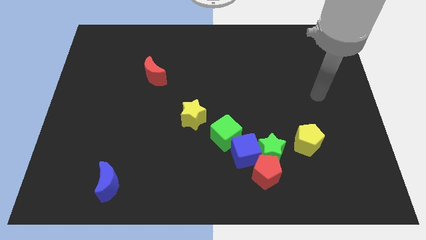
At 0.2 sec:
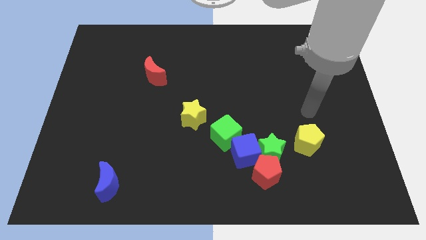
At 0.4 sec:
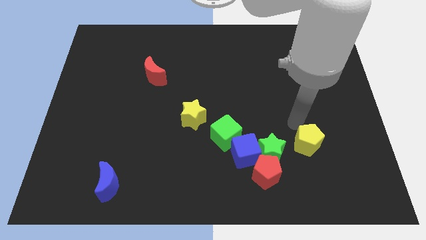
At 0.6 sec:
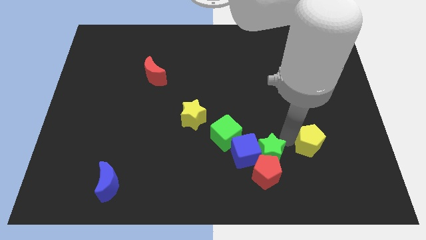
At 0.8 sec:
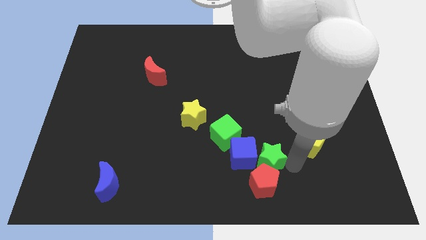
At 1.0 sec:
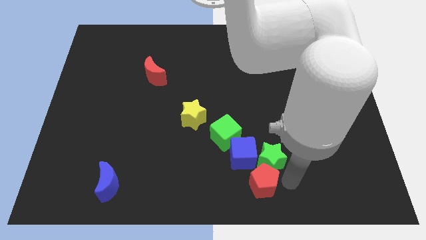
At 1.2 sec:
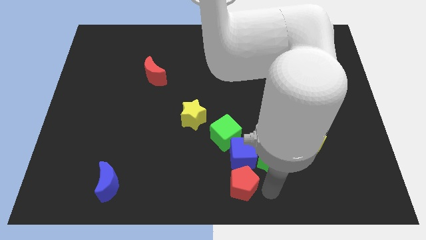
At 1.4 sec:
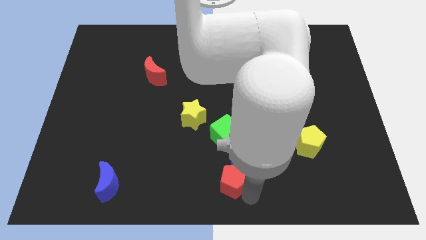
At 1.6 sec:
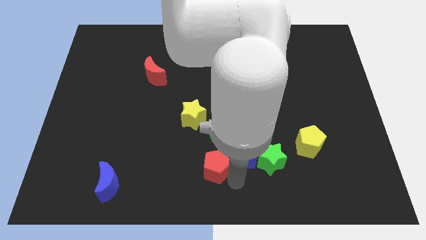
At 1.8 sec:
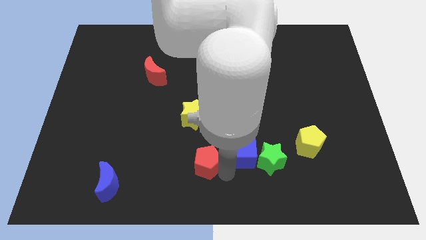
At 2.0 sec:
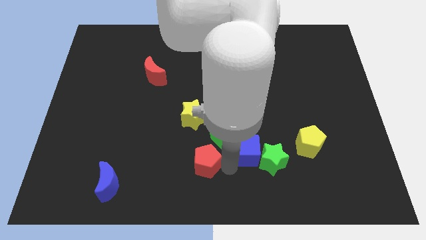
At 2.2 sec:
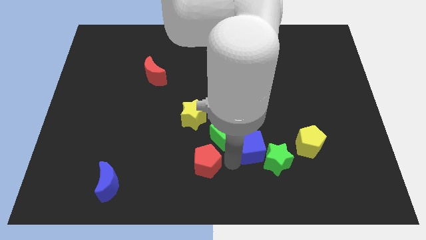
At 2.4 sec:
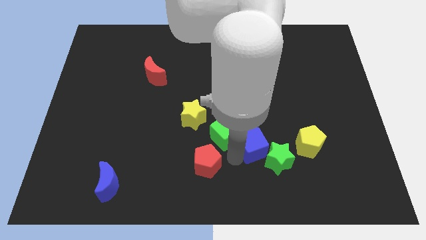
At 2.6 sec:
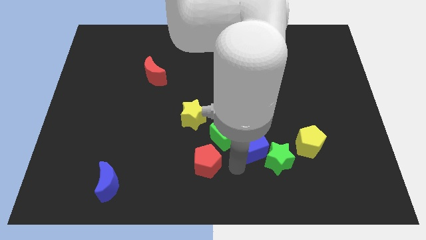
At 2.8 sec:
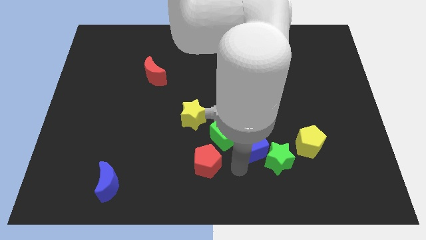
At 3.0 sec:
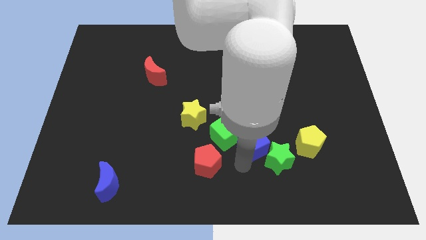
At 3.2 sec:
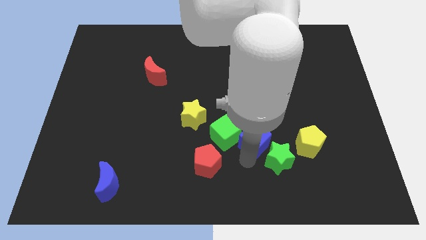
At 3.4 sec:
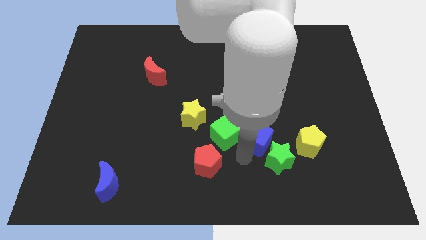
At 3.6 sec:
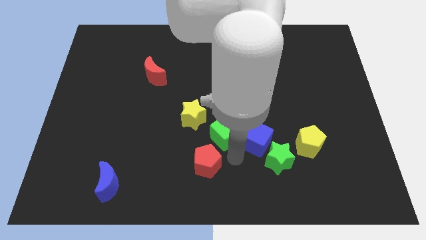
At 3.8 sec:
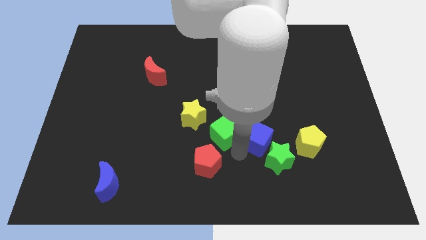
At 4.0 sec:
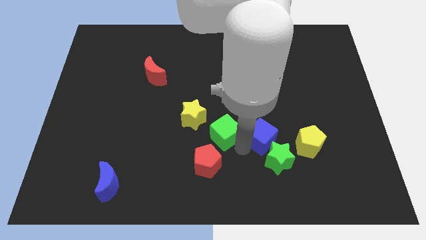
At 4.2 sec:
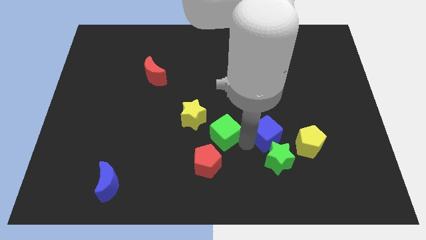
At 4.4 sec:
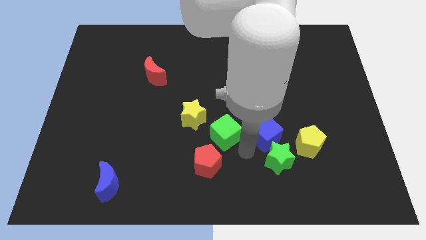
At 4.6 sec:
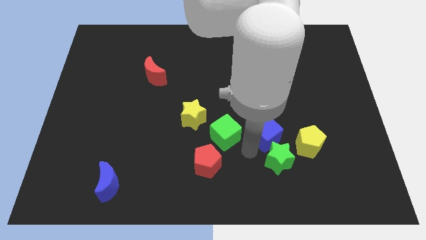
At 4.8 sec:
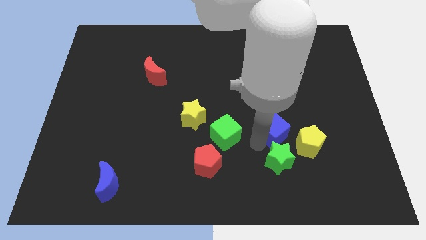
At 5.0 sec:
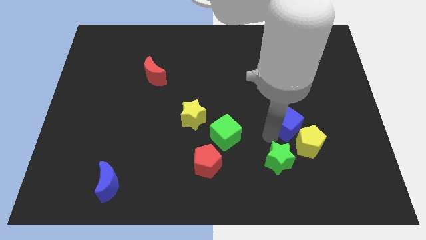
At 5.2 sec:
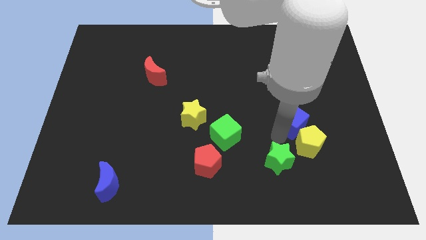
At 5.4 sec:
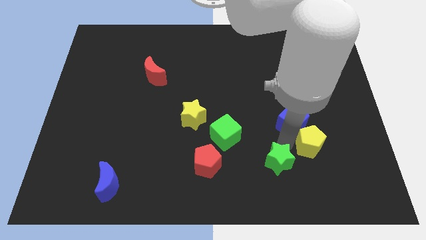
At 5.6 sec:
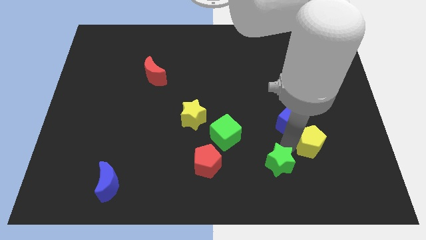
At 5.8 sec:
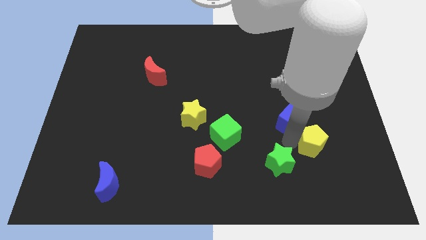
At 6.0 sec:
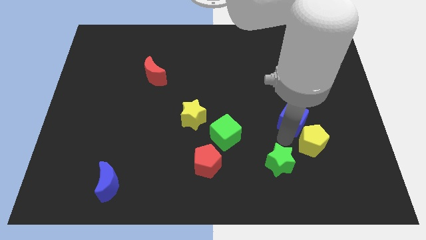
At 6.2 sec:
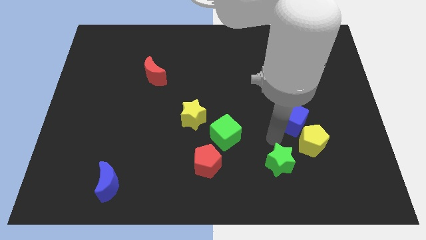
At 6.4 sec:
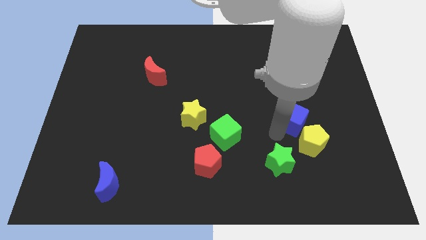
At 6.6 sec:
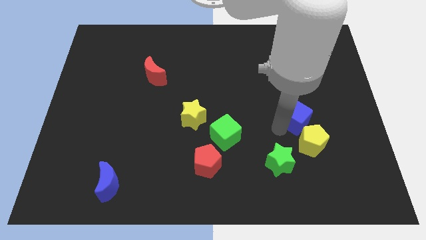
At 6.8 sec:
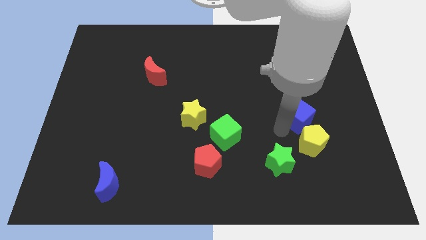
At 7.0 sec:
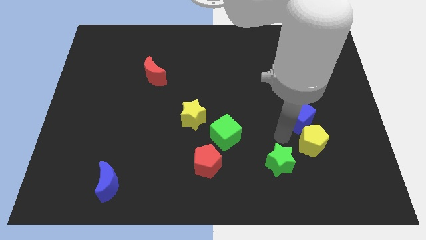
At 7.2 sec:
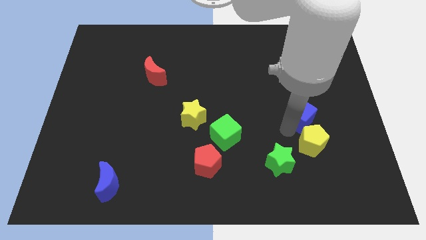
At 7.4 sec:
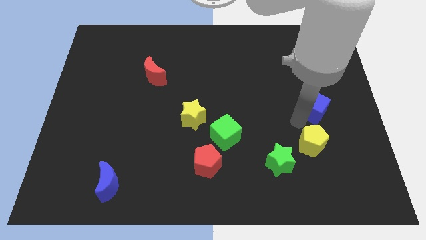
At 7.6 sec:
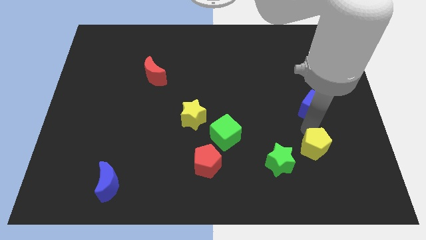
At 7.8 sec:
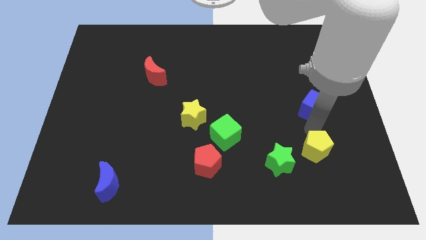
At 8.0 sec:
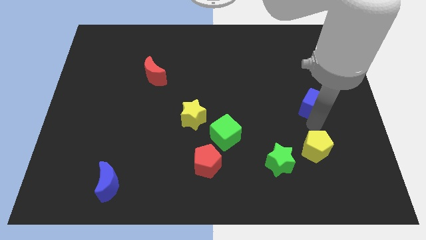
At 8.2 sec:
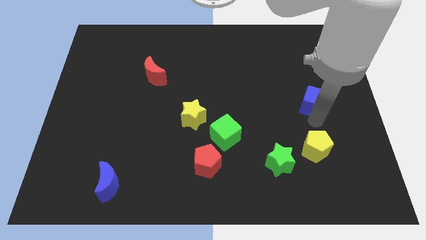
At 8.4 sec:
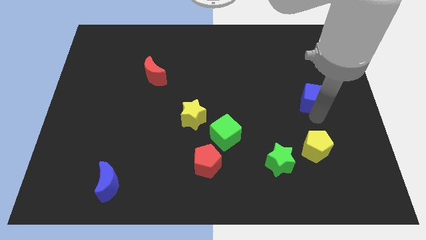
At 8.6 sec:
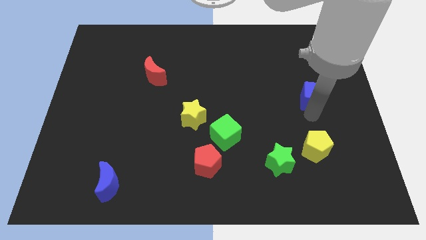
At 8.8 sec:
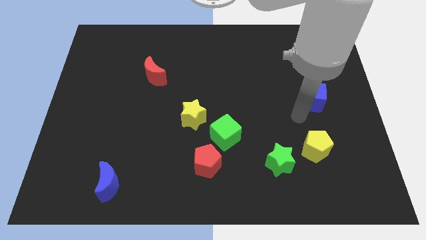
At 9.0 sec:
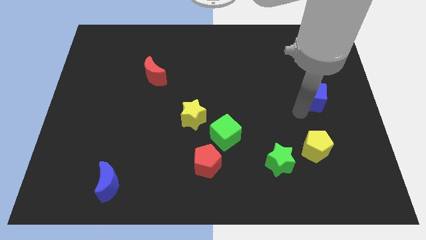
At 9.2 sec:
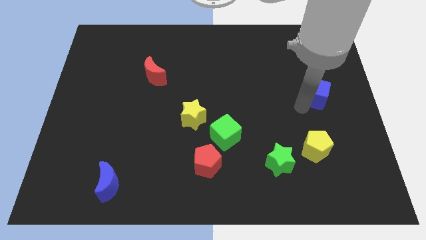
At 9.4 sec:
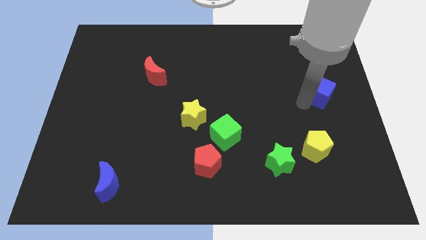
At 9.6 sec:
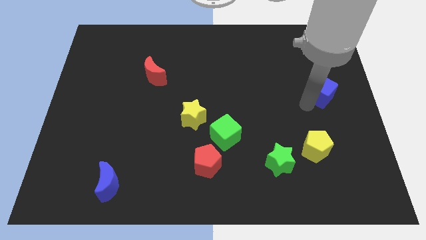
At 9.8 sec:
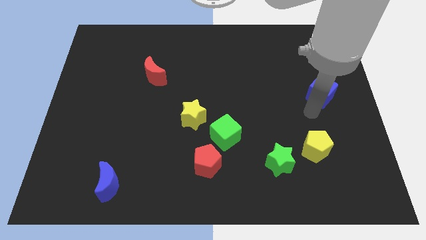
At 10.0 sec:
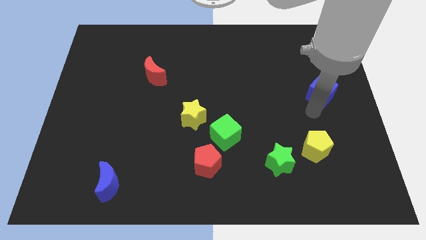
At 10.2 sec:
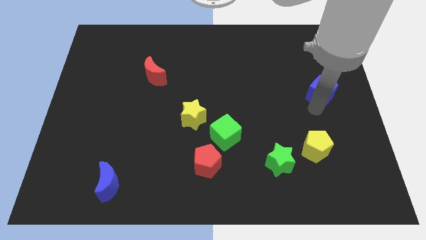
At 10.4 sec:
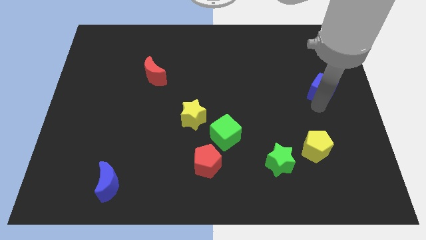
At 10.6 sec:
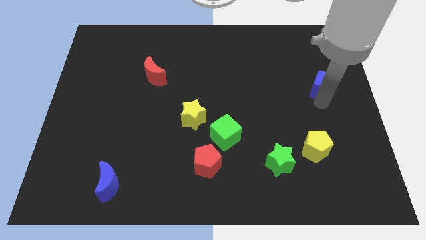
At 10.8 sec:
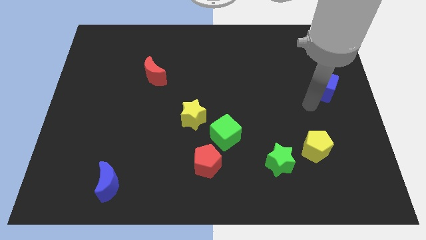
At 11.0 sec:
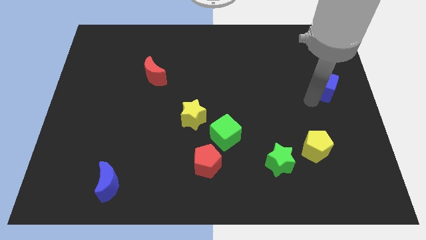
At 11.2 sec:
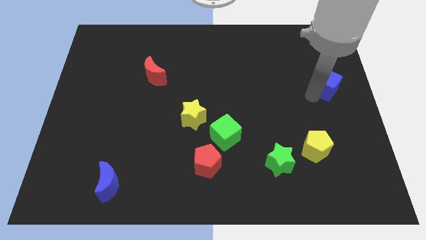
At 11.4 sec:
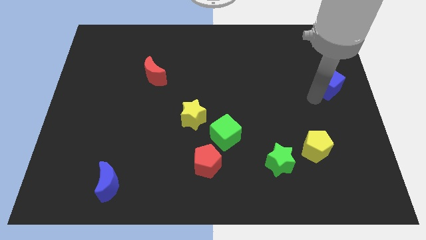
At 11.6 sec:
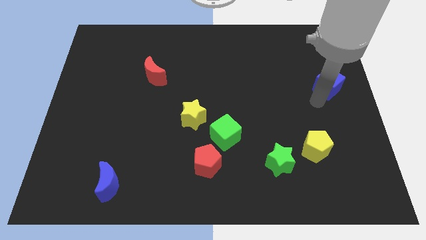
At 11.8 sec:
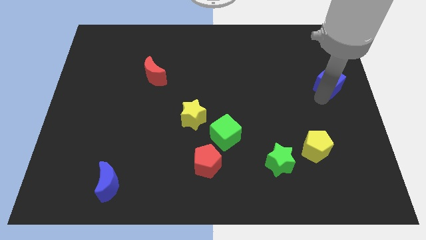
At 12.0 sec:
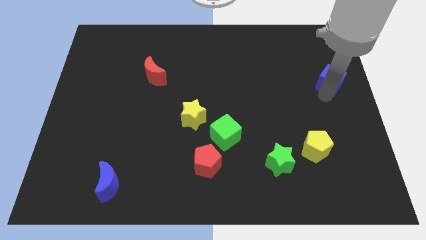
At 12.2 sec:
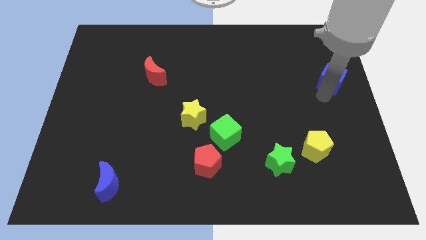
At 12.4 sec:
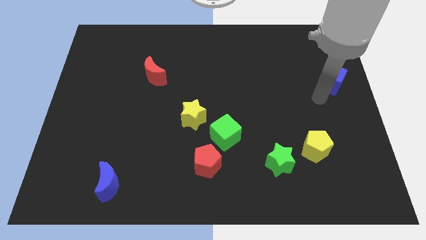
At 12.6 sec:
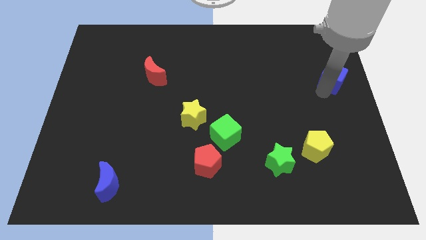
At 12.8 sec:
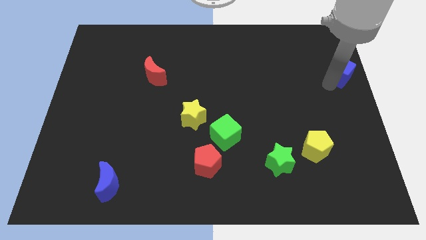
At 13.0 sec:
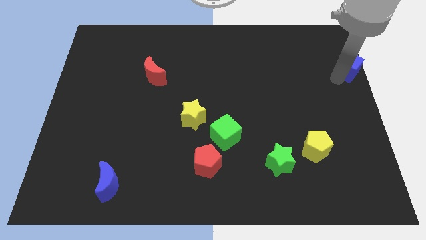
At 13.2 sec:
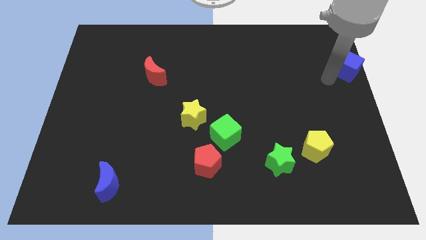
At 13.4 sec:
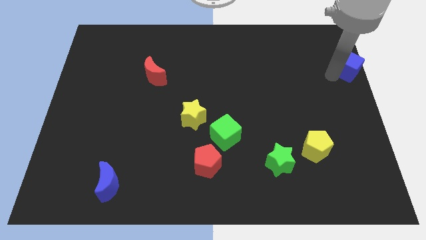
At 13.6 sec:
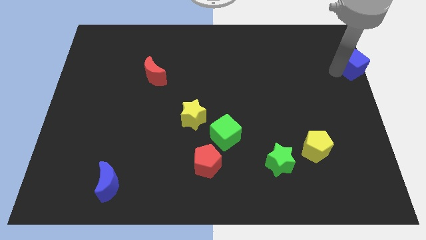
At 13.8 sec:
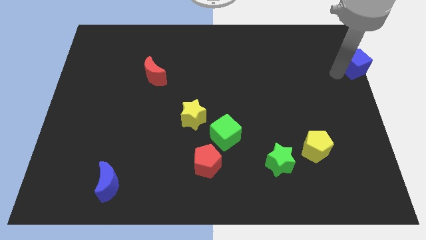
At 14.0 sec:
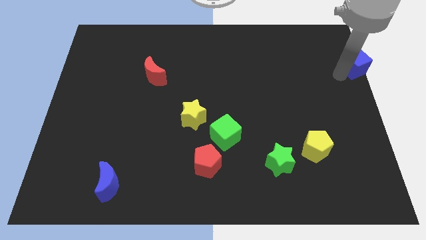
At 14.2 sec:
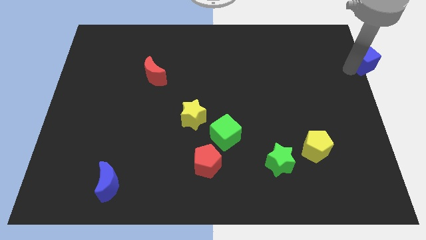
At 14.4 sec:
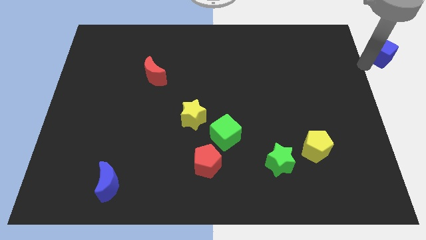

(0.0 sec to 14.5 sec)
move the blue cube to the top right corner
